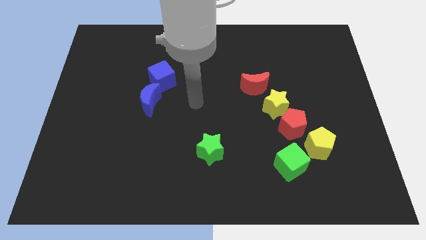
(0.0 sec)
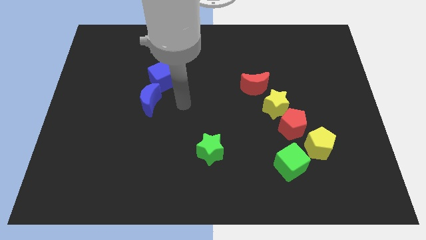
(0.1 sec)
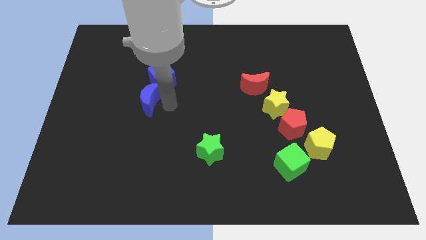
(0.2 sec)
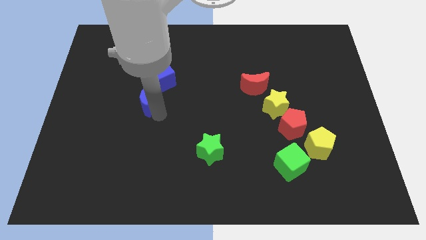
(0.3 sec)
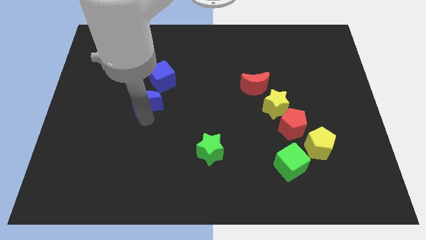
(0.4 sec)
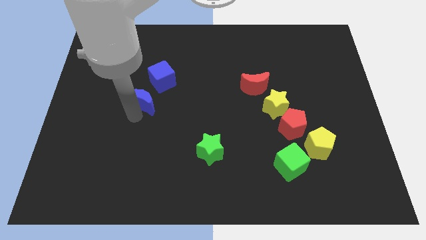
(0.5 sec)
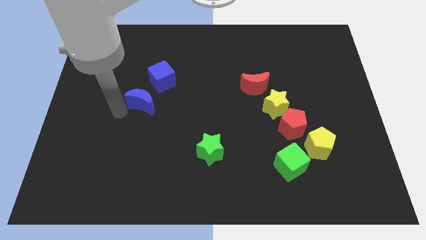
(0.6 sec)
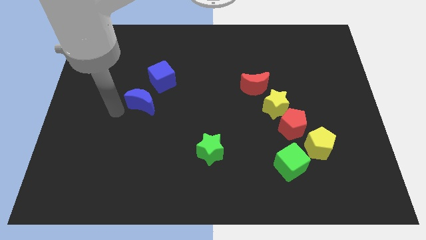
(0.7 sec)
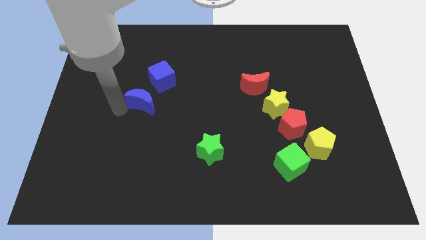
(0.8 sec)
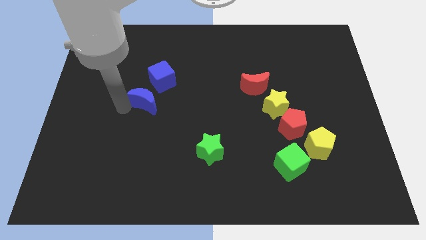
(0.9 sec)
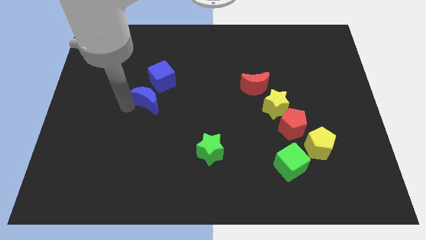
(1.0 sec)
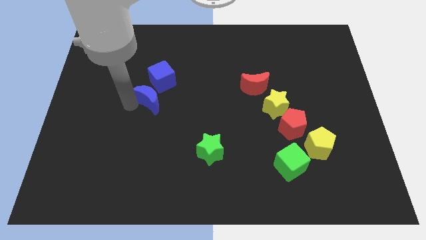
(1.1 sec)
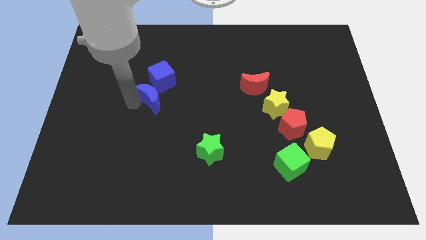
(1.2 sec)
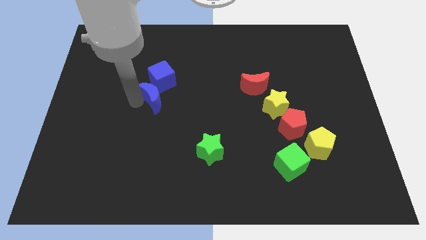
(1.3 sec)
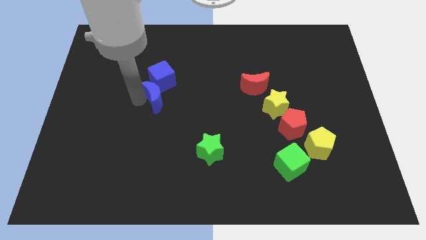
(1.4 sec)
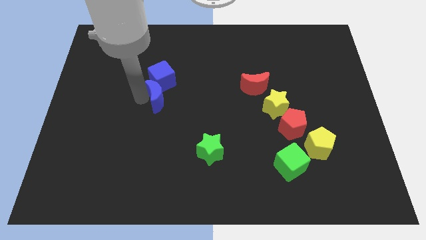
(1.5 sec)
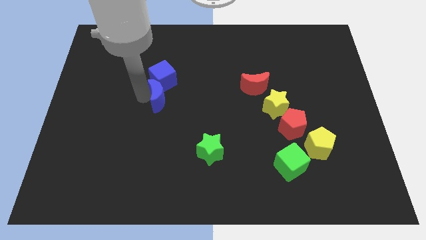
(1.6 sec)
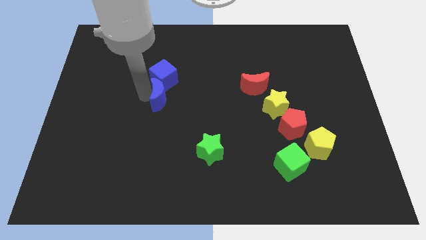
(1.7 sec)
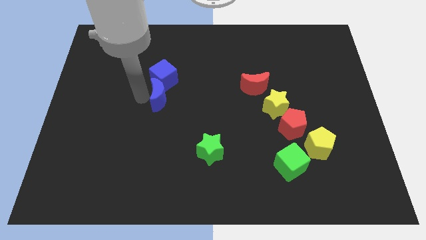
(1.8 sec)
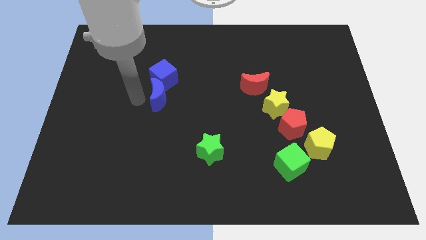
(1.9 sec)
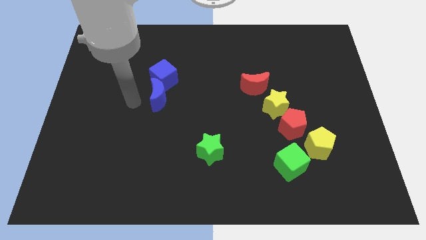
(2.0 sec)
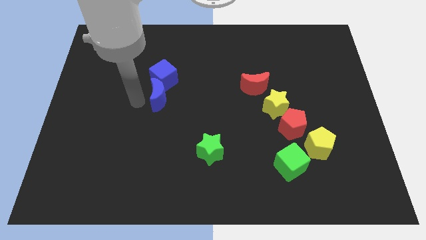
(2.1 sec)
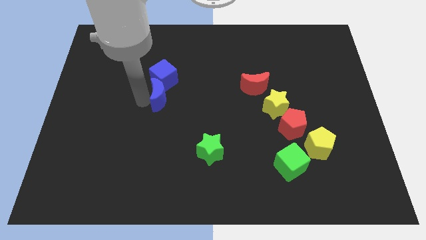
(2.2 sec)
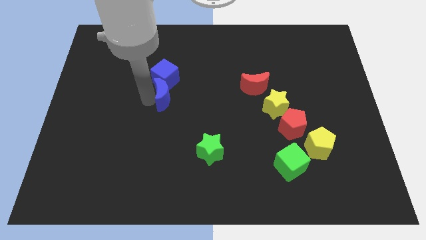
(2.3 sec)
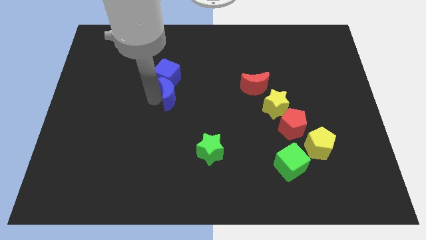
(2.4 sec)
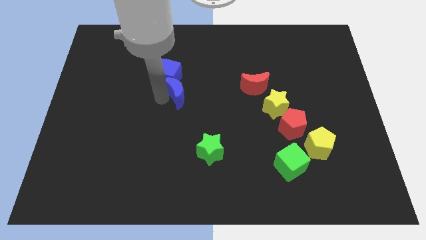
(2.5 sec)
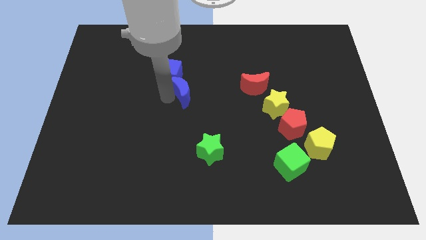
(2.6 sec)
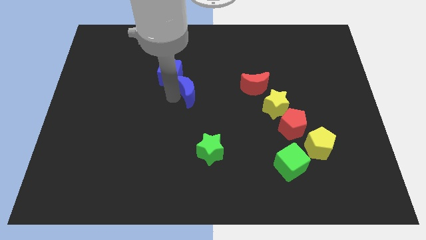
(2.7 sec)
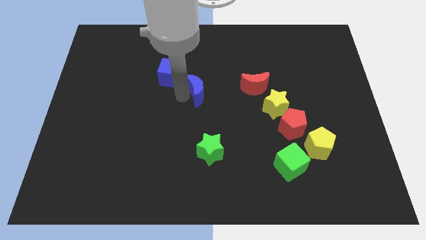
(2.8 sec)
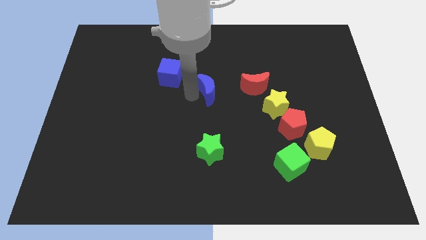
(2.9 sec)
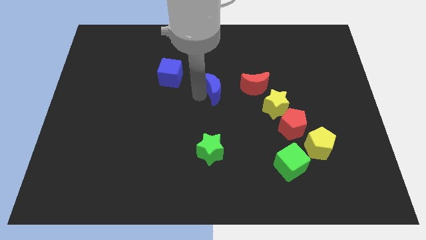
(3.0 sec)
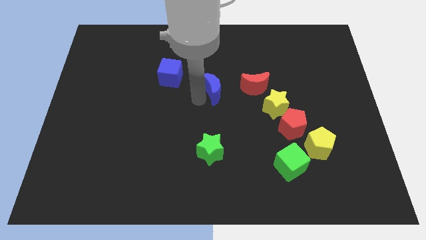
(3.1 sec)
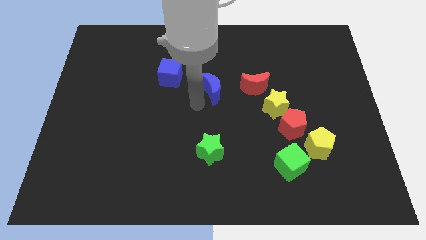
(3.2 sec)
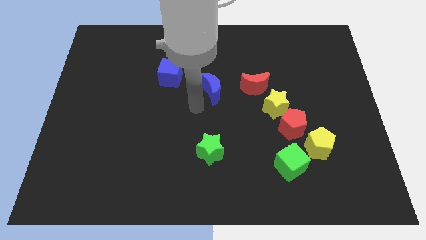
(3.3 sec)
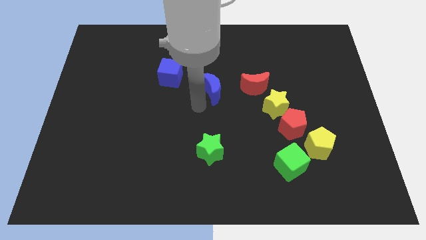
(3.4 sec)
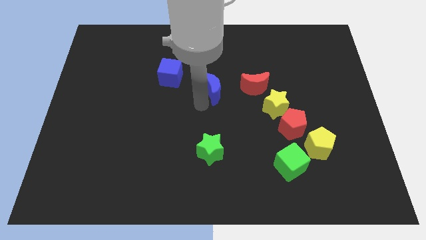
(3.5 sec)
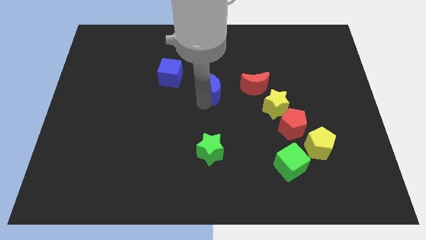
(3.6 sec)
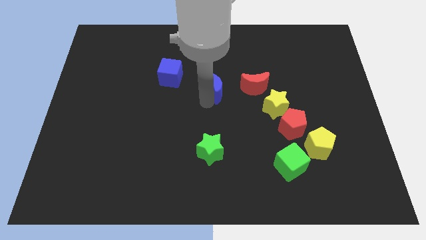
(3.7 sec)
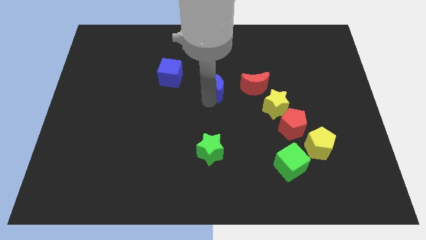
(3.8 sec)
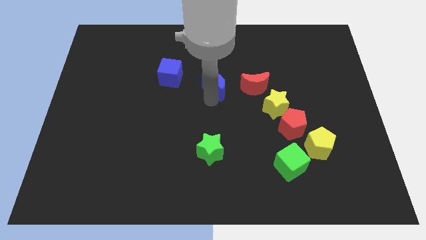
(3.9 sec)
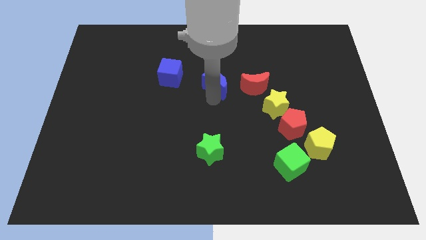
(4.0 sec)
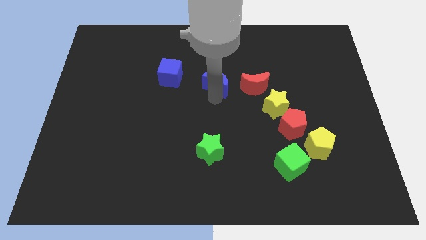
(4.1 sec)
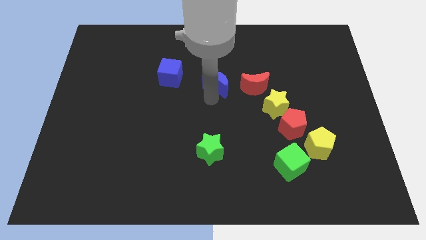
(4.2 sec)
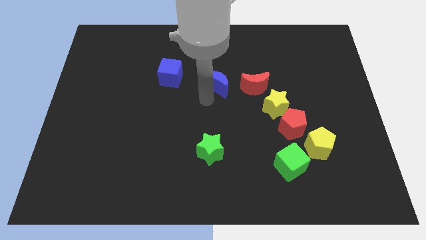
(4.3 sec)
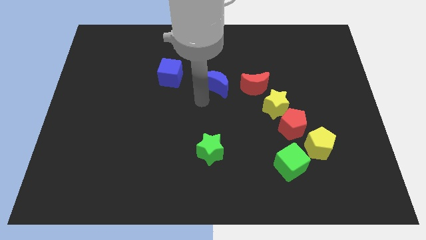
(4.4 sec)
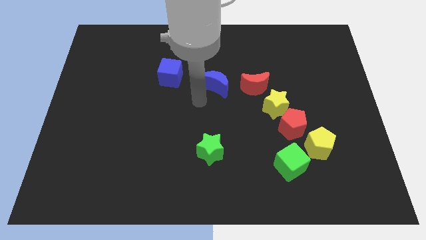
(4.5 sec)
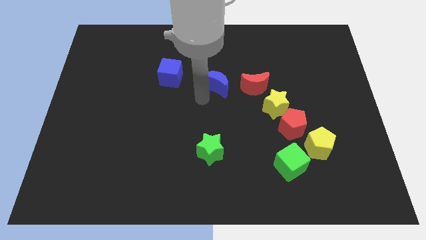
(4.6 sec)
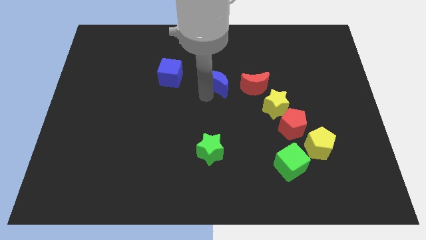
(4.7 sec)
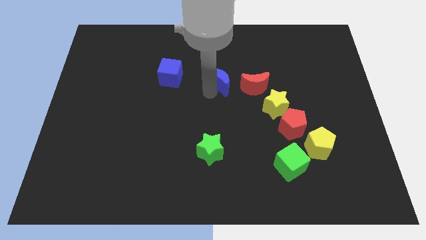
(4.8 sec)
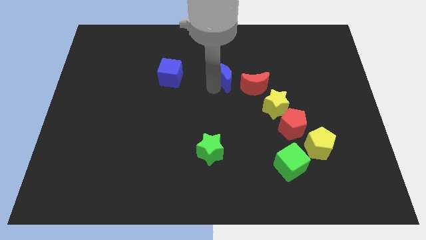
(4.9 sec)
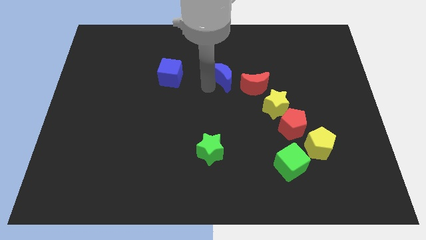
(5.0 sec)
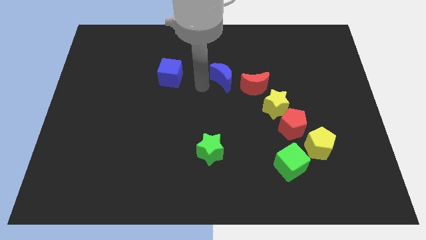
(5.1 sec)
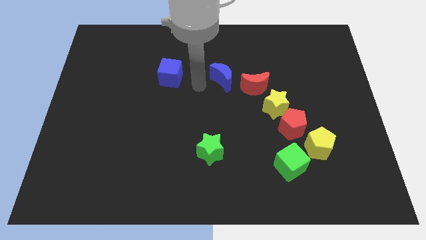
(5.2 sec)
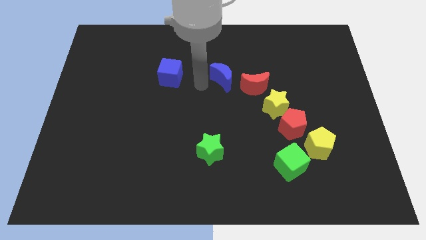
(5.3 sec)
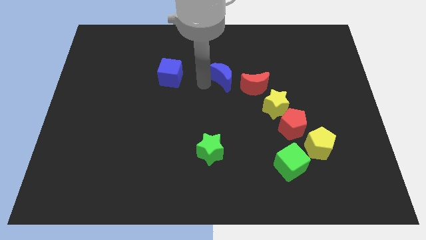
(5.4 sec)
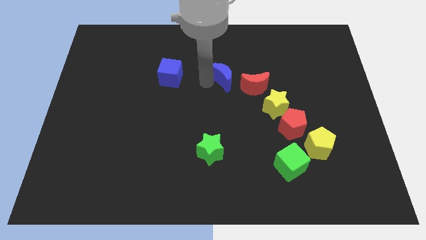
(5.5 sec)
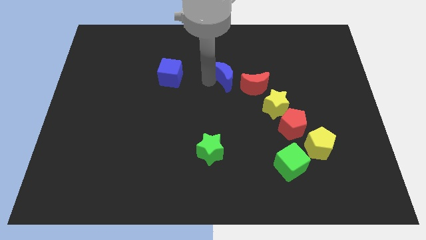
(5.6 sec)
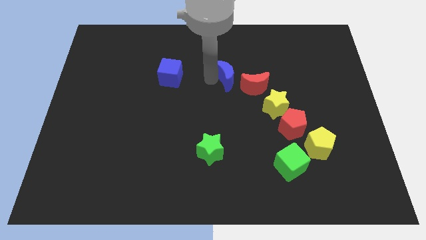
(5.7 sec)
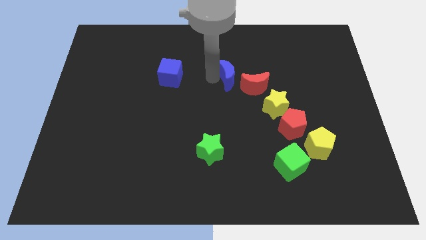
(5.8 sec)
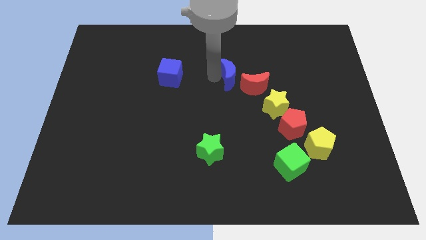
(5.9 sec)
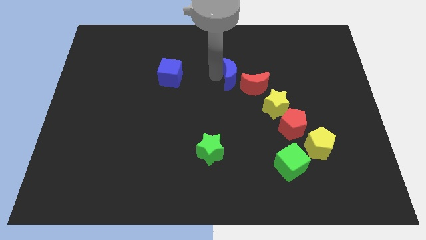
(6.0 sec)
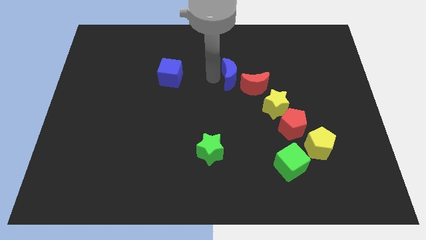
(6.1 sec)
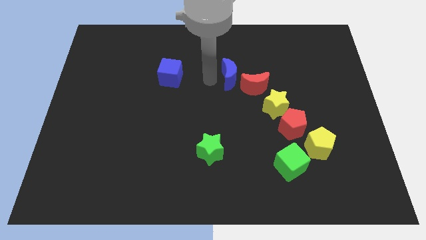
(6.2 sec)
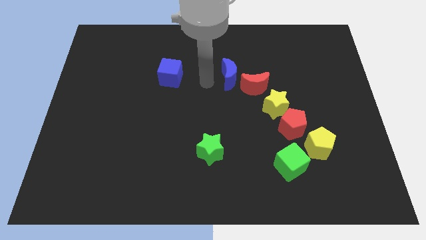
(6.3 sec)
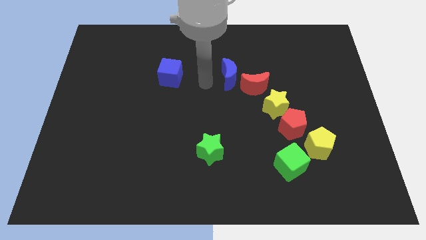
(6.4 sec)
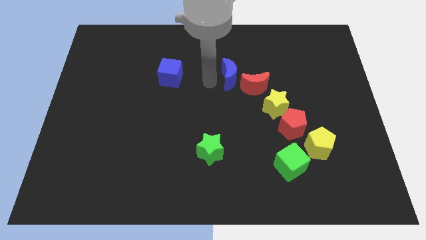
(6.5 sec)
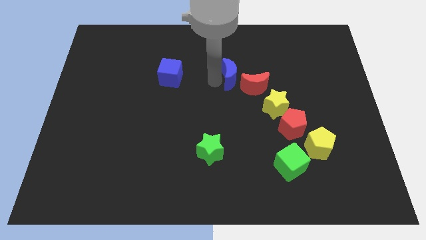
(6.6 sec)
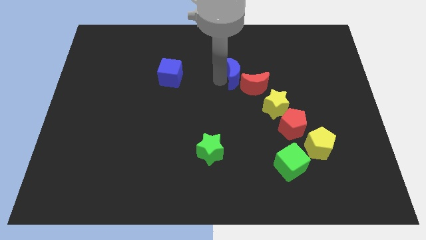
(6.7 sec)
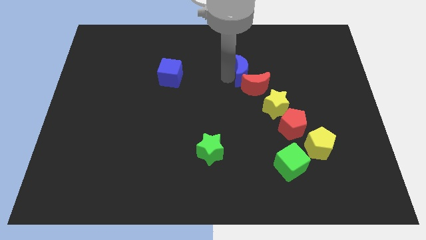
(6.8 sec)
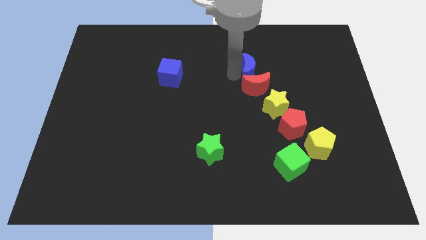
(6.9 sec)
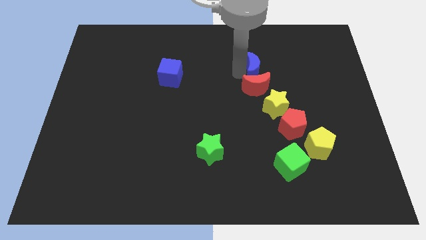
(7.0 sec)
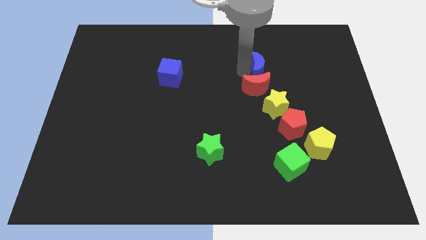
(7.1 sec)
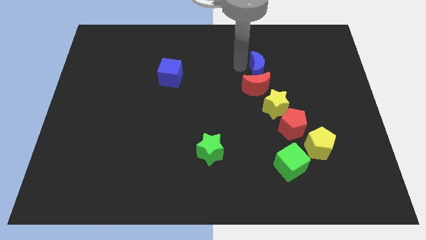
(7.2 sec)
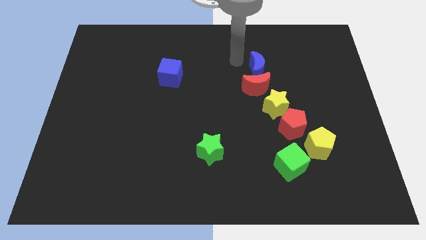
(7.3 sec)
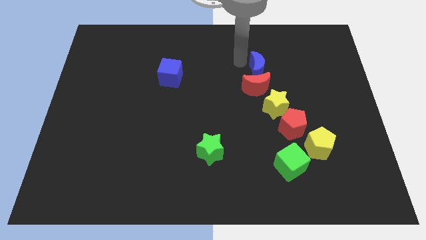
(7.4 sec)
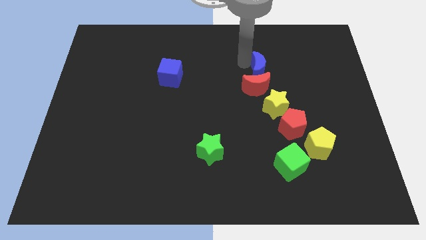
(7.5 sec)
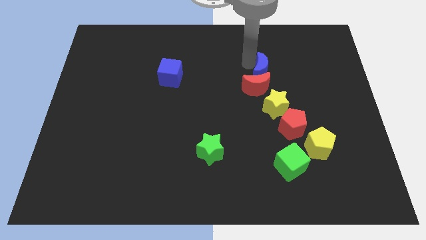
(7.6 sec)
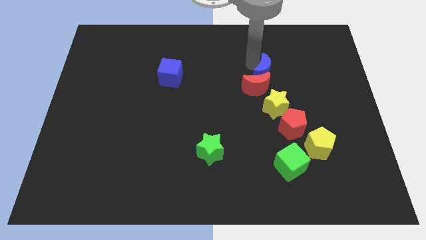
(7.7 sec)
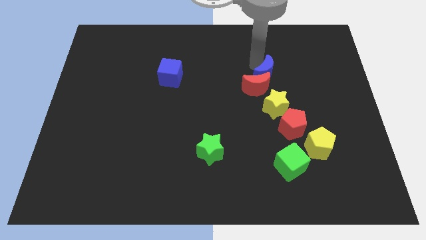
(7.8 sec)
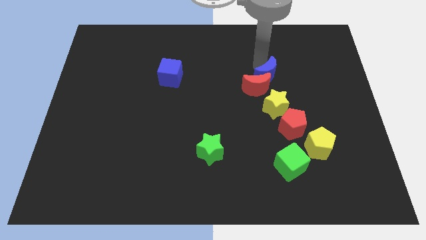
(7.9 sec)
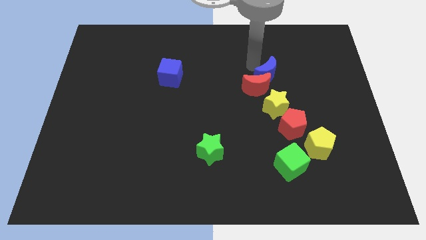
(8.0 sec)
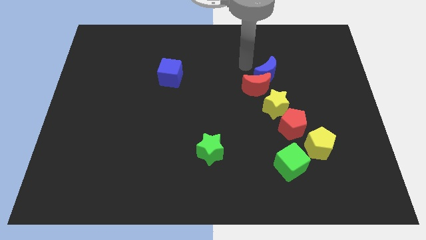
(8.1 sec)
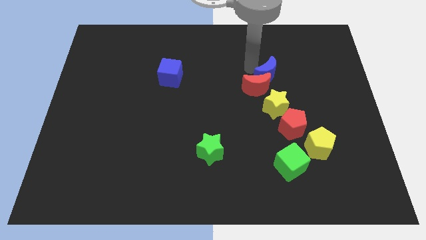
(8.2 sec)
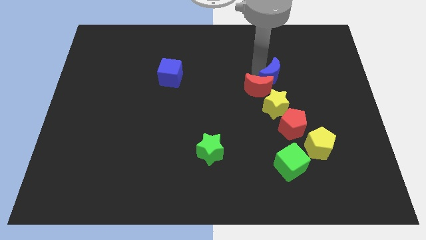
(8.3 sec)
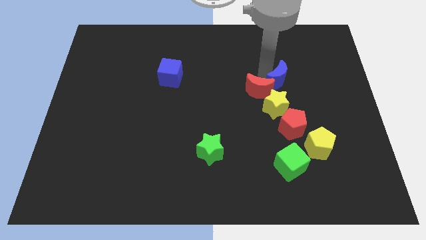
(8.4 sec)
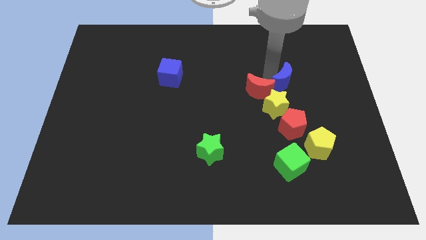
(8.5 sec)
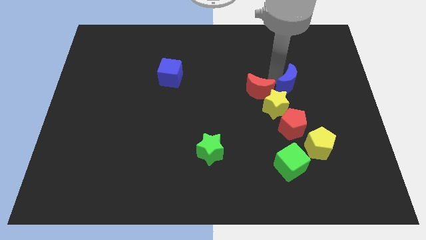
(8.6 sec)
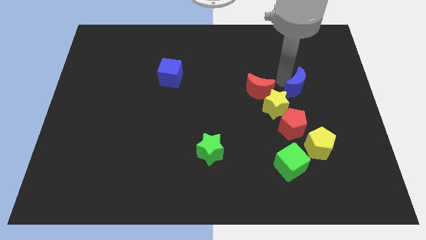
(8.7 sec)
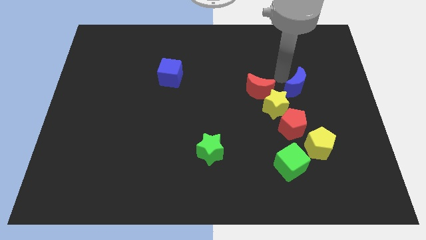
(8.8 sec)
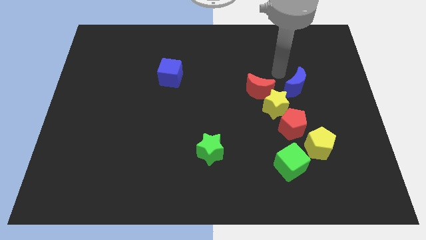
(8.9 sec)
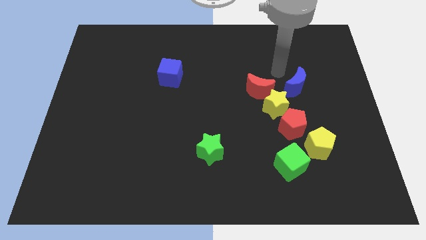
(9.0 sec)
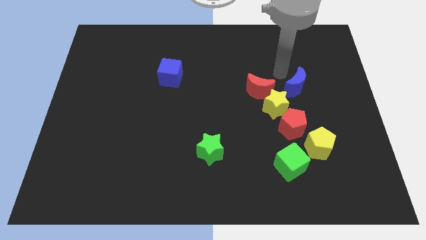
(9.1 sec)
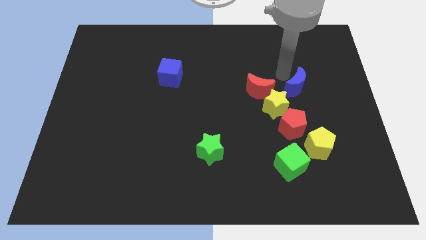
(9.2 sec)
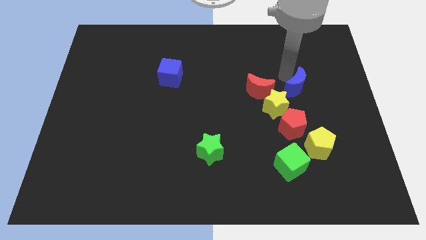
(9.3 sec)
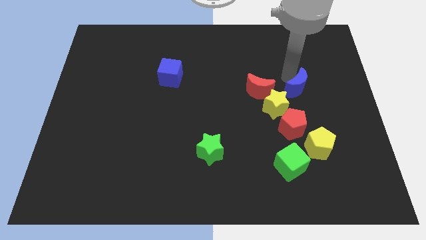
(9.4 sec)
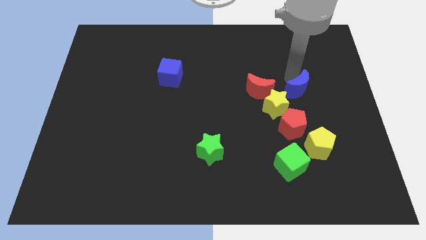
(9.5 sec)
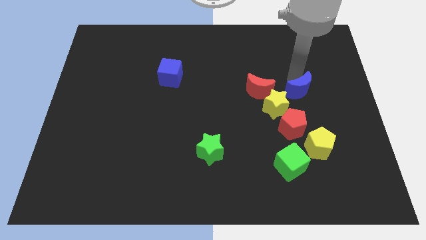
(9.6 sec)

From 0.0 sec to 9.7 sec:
slide the blue moon right of the yellow star
